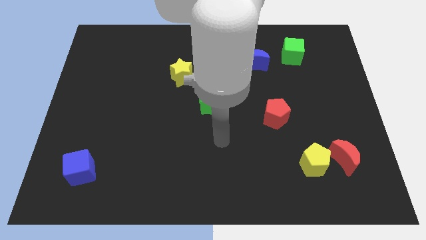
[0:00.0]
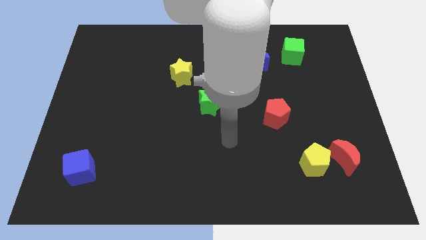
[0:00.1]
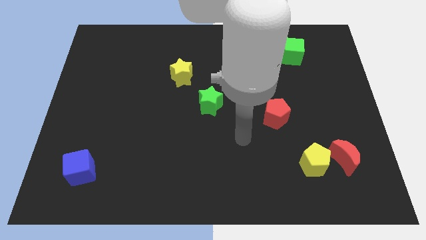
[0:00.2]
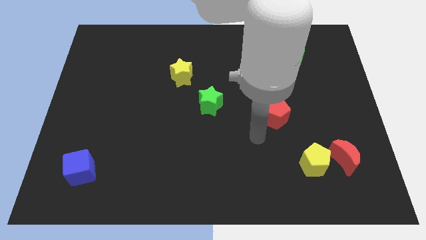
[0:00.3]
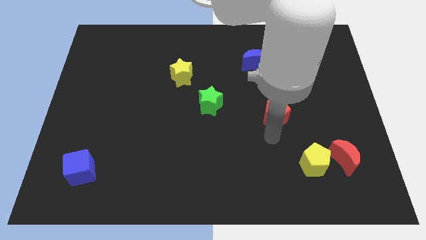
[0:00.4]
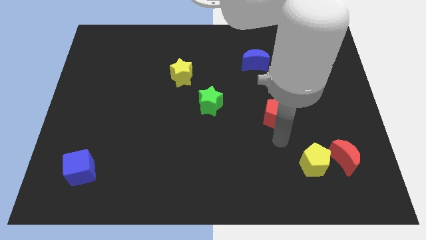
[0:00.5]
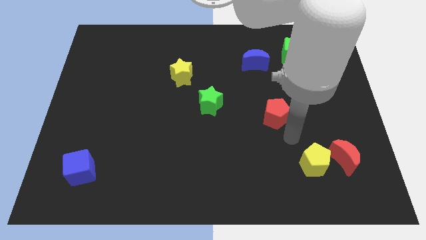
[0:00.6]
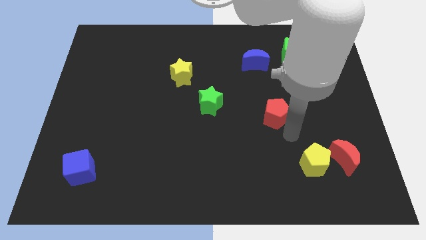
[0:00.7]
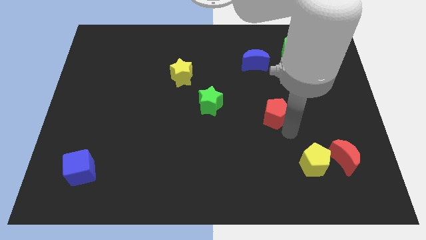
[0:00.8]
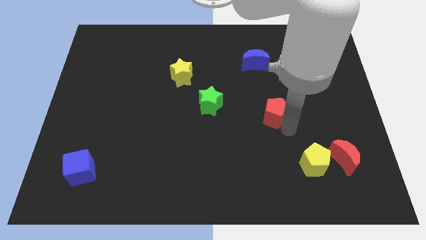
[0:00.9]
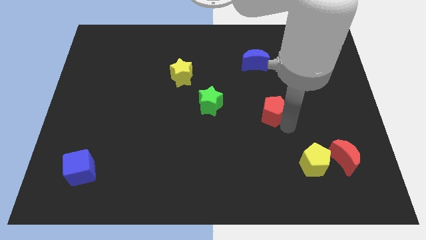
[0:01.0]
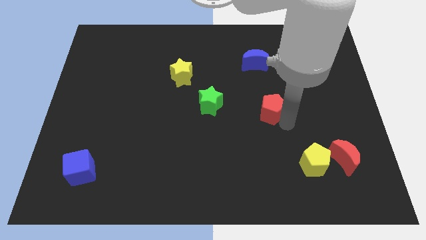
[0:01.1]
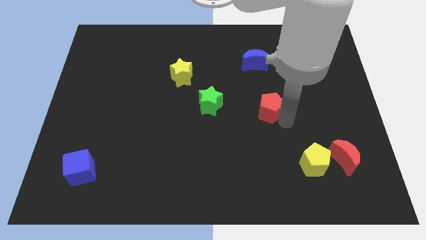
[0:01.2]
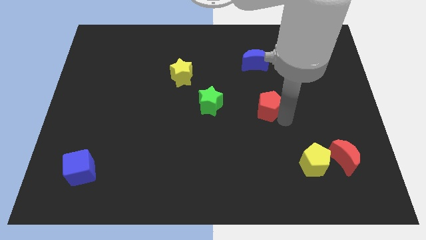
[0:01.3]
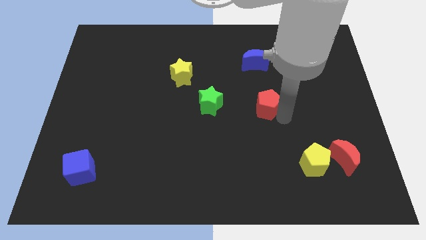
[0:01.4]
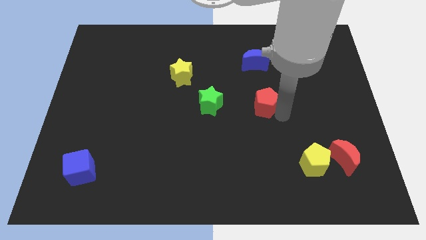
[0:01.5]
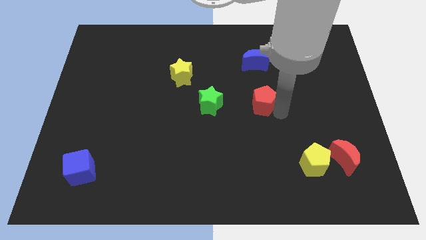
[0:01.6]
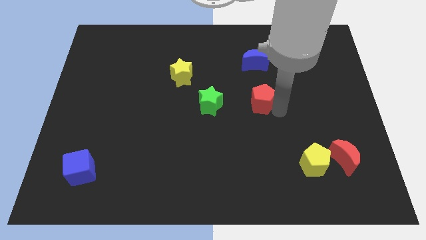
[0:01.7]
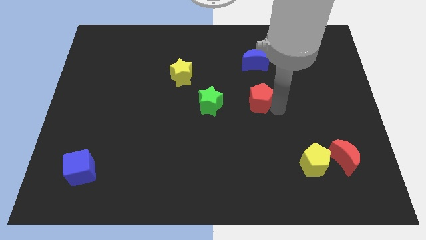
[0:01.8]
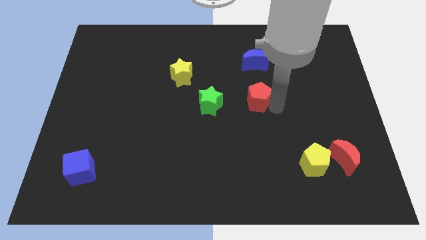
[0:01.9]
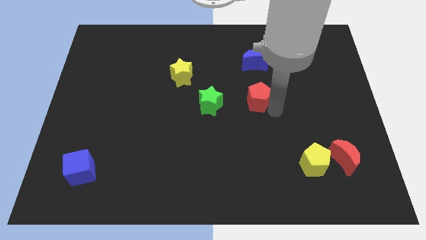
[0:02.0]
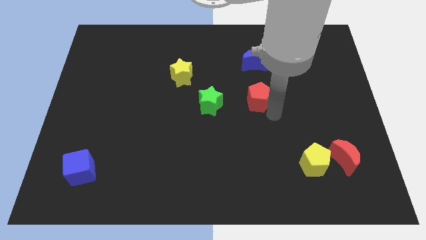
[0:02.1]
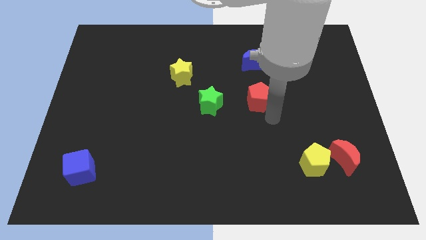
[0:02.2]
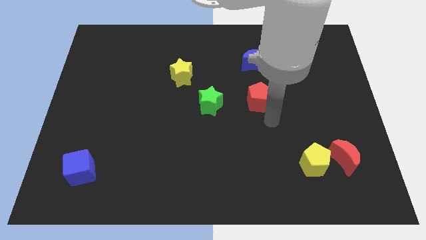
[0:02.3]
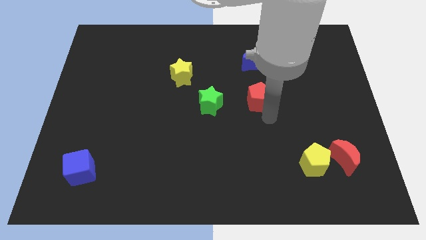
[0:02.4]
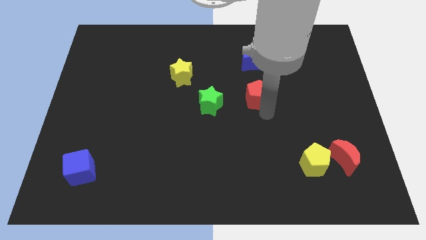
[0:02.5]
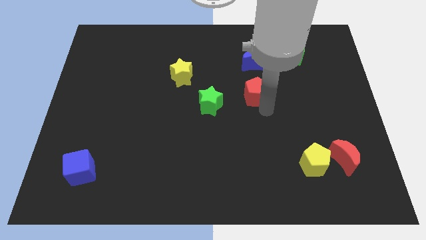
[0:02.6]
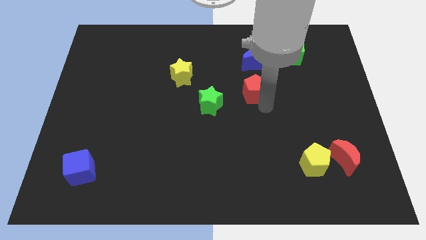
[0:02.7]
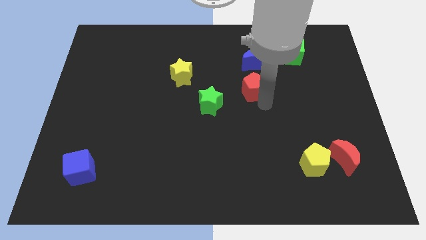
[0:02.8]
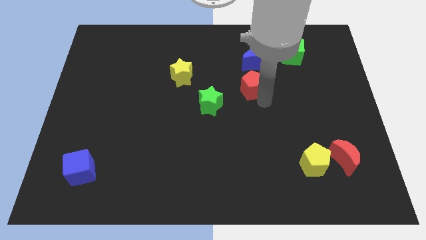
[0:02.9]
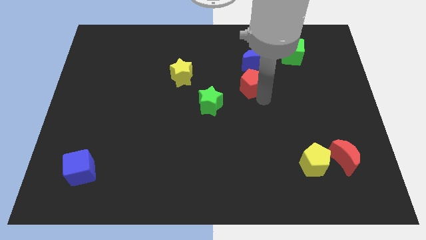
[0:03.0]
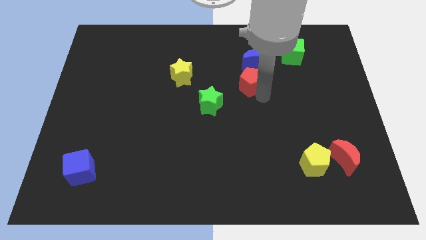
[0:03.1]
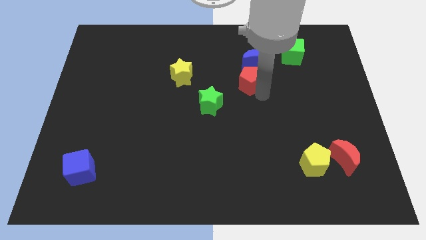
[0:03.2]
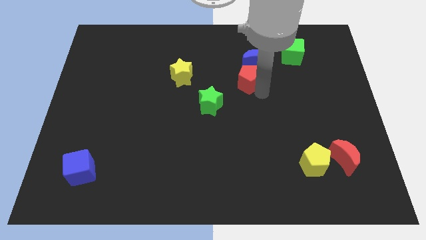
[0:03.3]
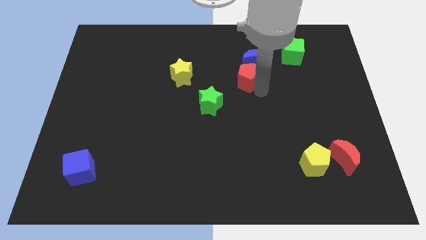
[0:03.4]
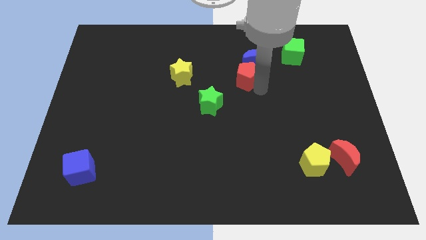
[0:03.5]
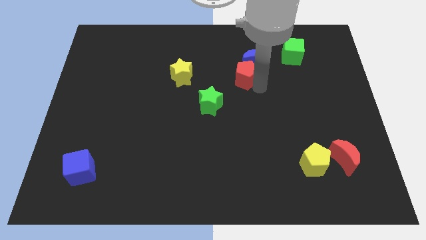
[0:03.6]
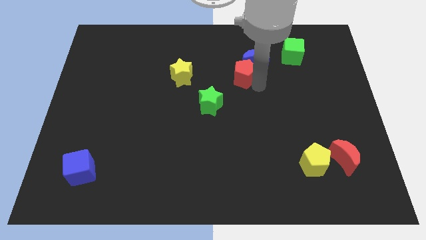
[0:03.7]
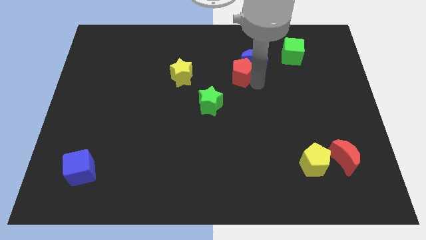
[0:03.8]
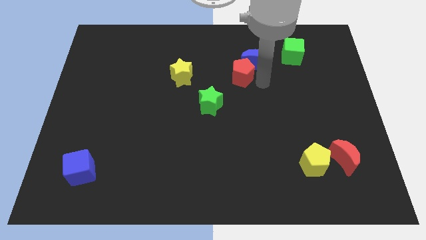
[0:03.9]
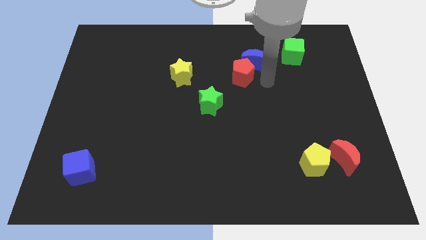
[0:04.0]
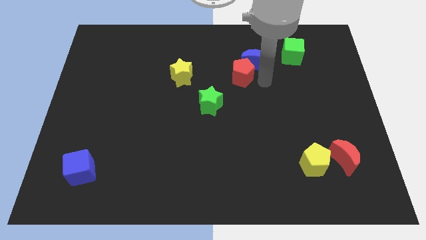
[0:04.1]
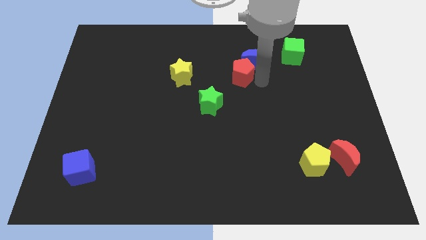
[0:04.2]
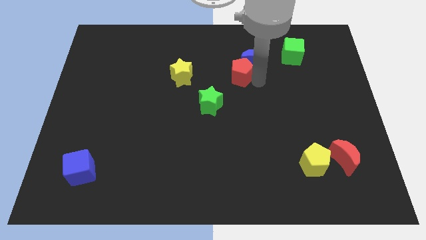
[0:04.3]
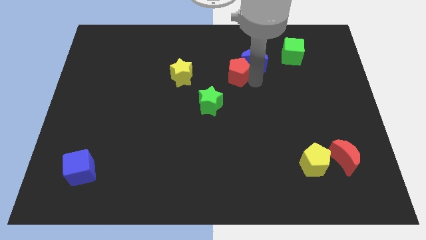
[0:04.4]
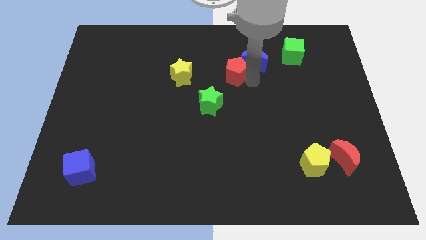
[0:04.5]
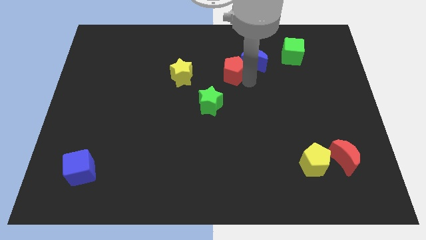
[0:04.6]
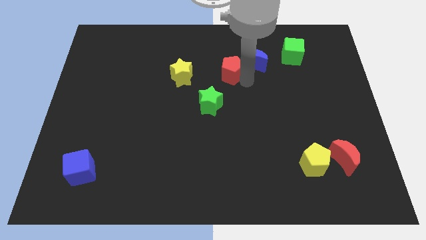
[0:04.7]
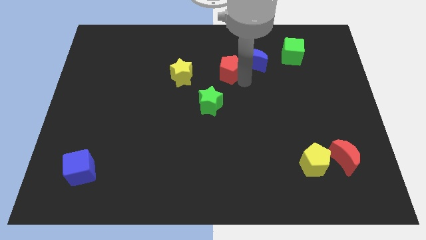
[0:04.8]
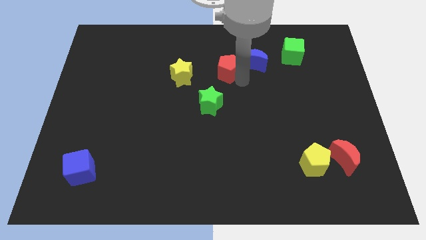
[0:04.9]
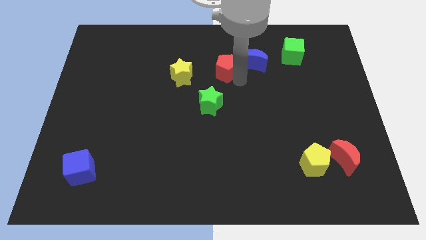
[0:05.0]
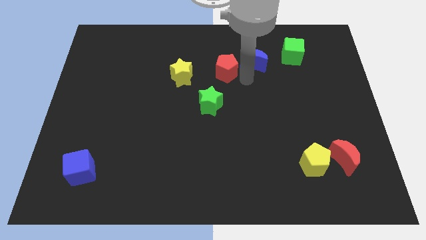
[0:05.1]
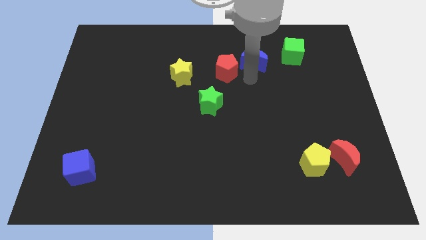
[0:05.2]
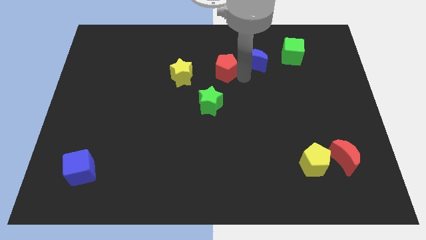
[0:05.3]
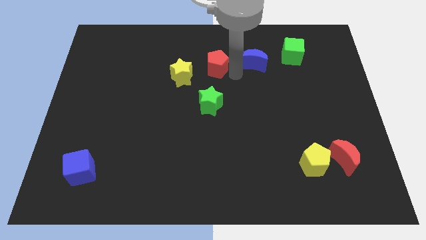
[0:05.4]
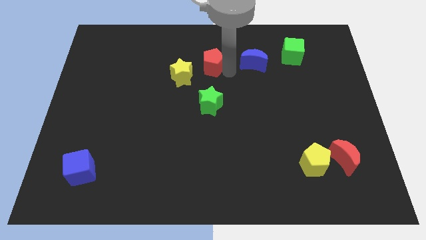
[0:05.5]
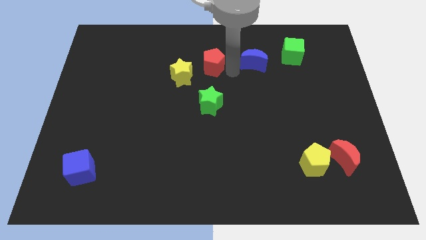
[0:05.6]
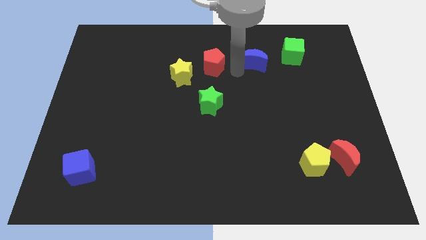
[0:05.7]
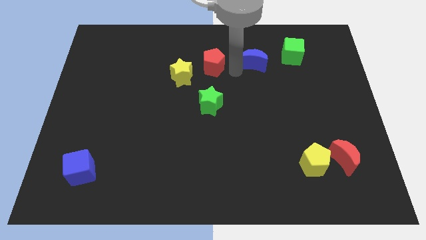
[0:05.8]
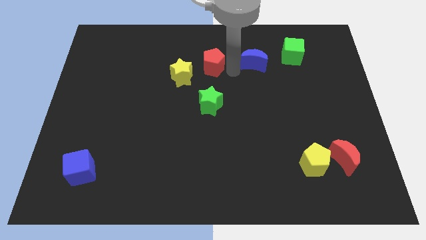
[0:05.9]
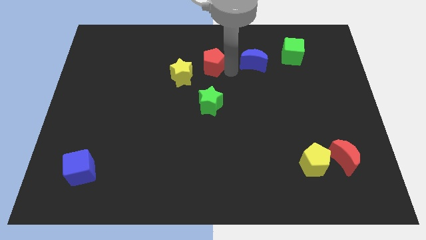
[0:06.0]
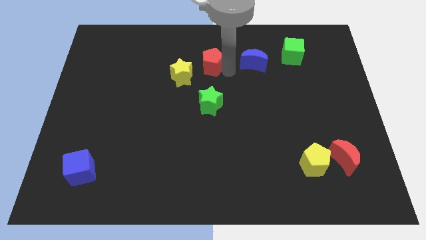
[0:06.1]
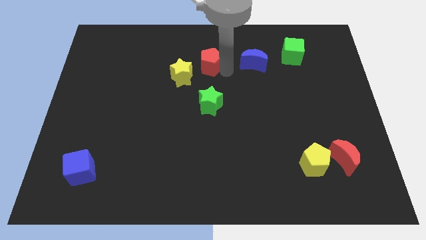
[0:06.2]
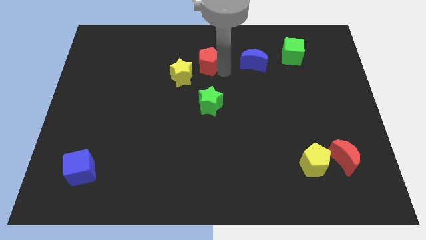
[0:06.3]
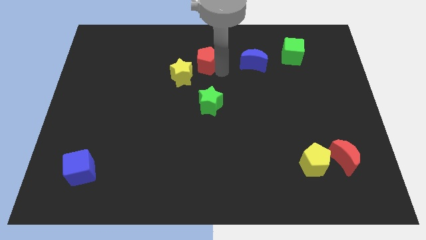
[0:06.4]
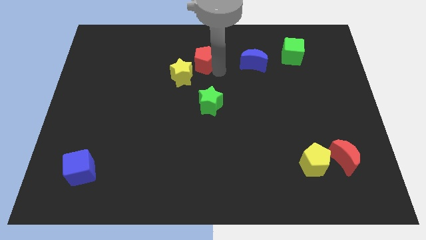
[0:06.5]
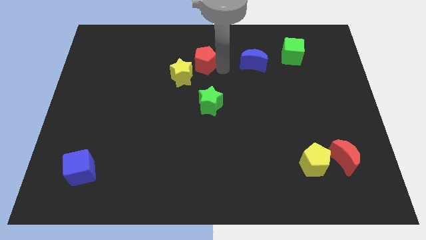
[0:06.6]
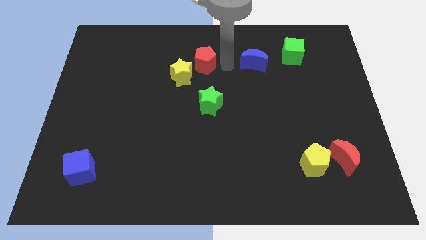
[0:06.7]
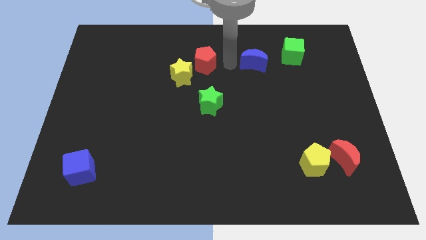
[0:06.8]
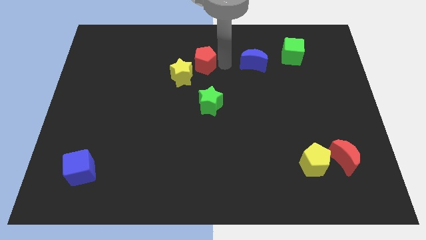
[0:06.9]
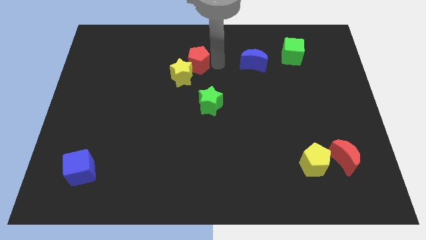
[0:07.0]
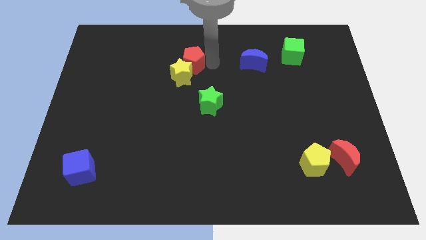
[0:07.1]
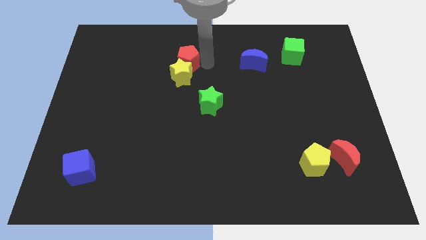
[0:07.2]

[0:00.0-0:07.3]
move the red pentagon diagonally up and to the left of the yellow star
